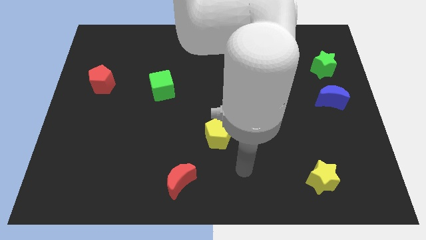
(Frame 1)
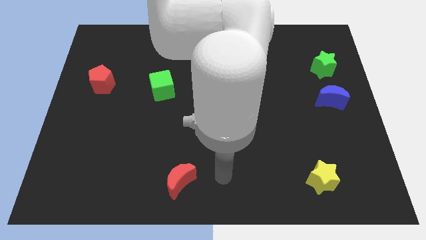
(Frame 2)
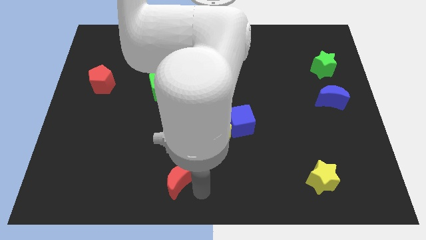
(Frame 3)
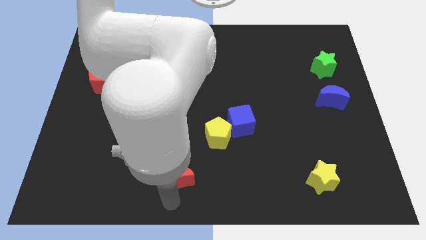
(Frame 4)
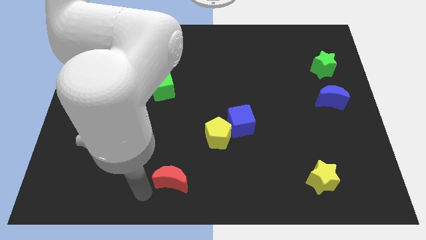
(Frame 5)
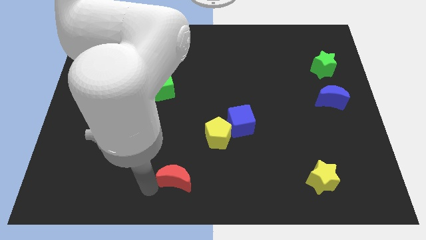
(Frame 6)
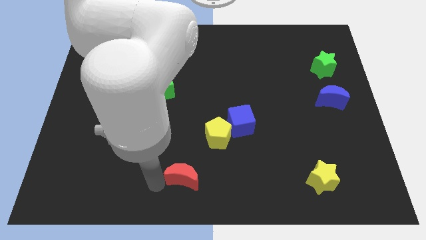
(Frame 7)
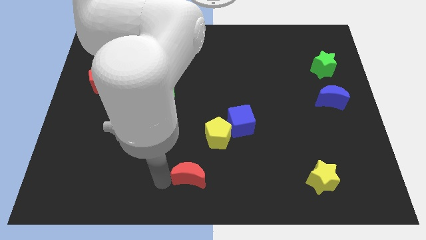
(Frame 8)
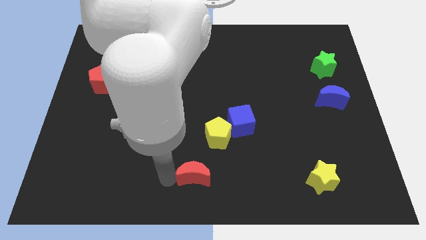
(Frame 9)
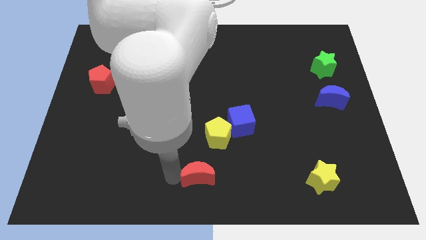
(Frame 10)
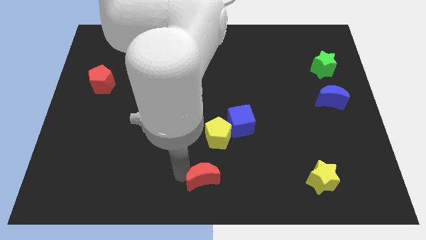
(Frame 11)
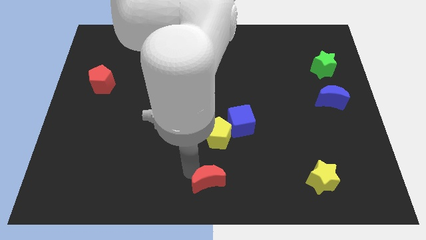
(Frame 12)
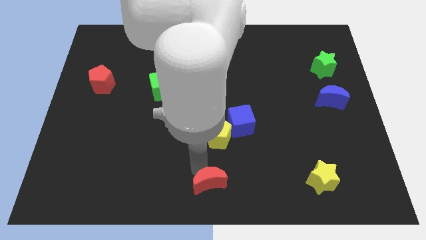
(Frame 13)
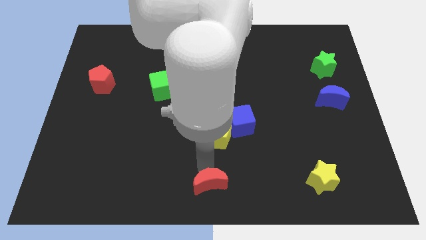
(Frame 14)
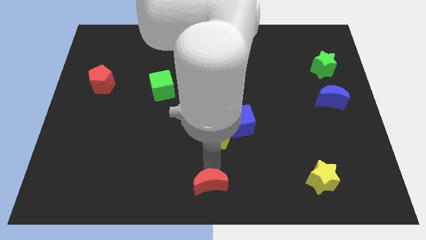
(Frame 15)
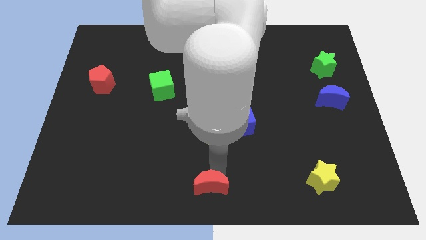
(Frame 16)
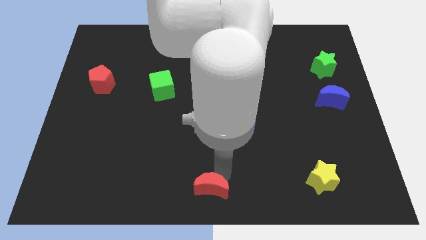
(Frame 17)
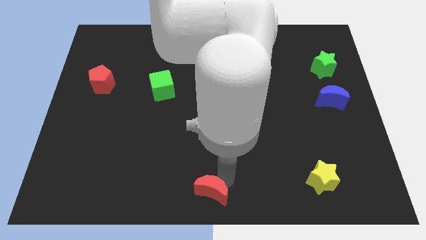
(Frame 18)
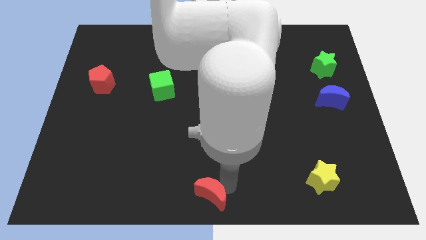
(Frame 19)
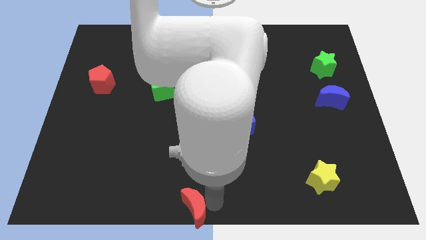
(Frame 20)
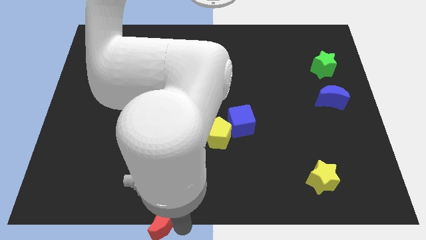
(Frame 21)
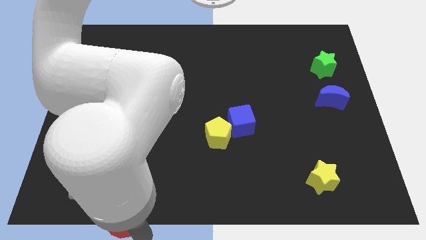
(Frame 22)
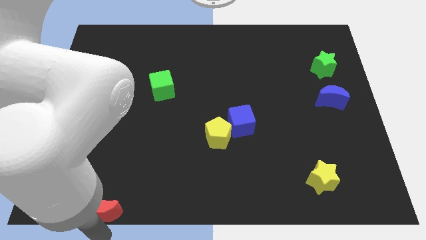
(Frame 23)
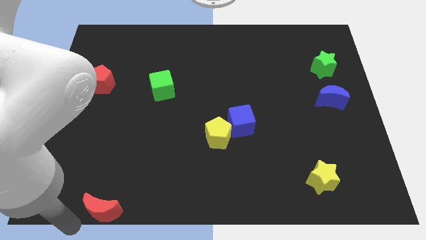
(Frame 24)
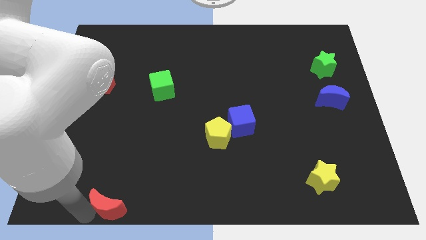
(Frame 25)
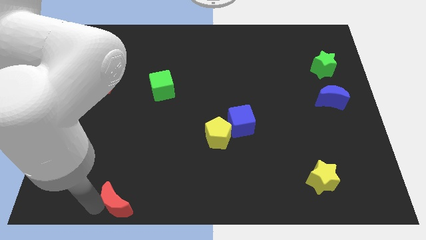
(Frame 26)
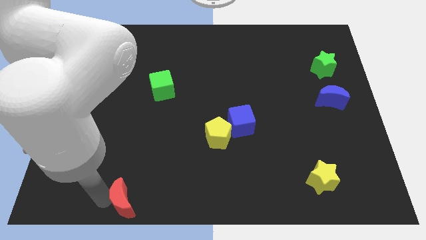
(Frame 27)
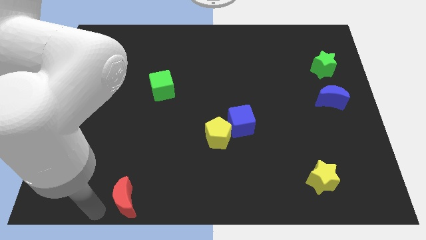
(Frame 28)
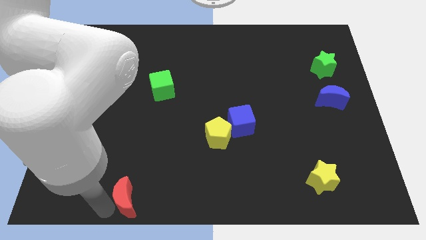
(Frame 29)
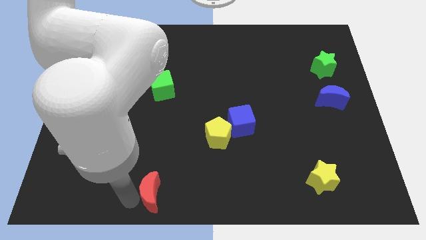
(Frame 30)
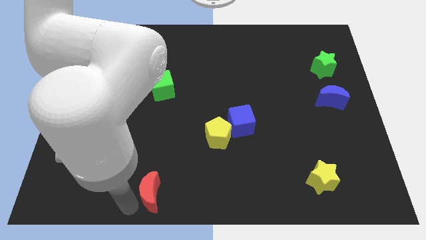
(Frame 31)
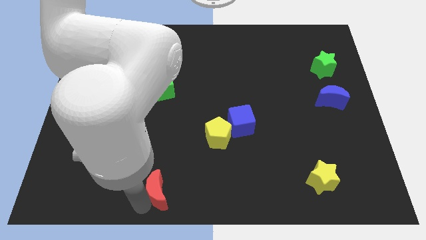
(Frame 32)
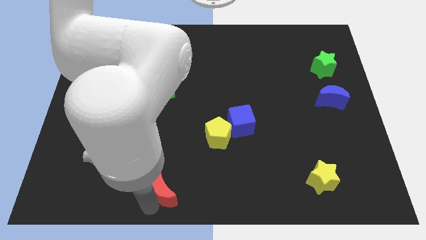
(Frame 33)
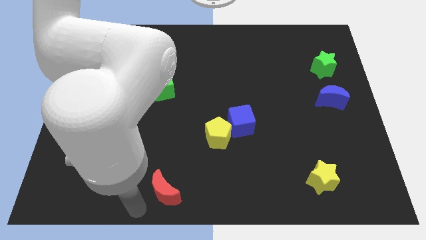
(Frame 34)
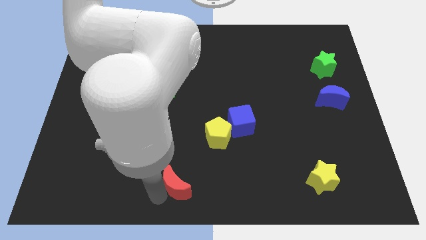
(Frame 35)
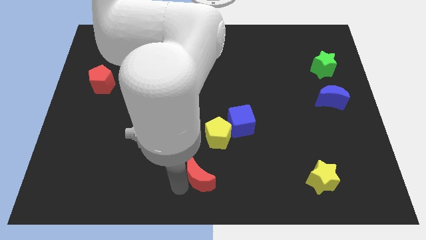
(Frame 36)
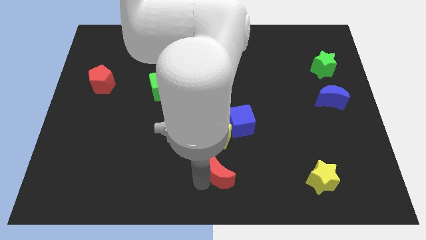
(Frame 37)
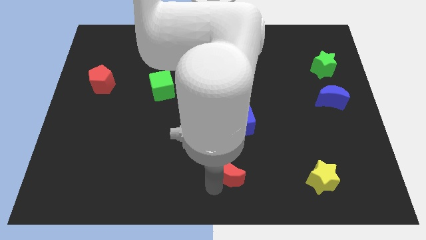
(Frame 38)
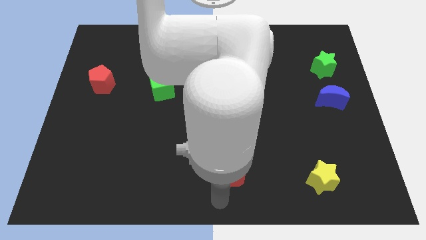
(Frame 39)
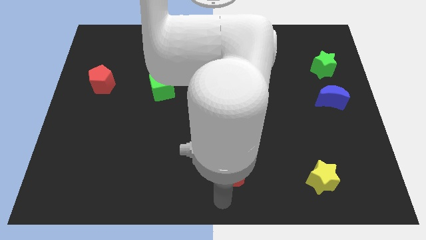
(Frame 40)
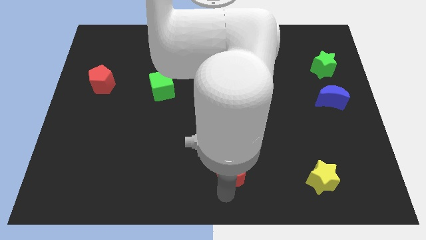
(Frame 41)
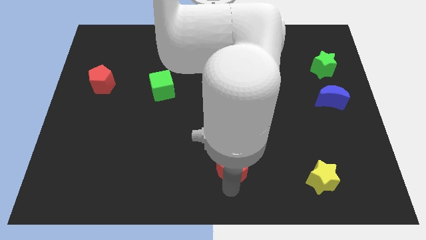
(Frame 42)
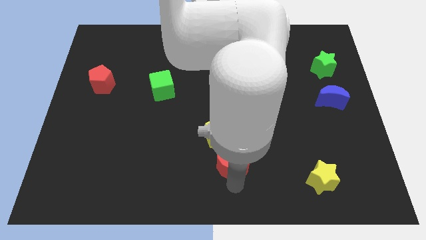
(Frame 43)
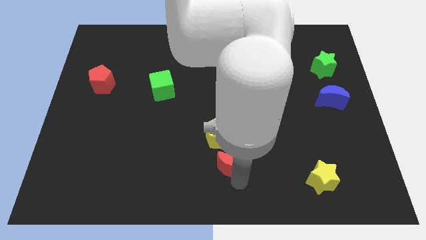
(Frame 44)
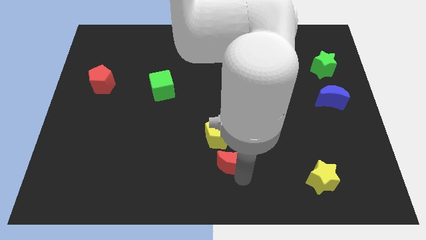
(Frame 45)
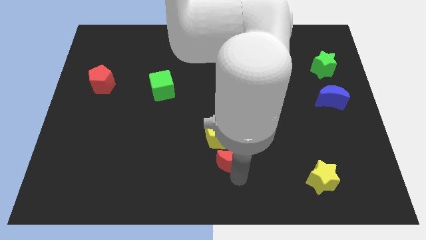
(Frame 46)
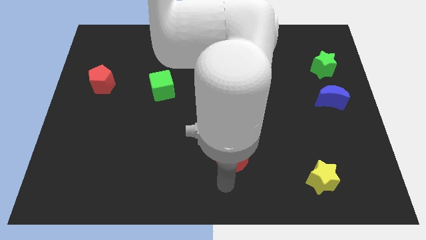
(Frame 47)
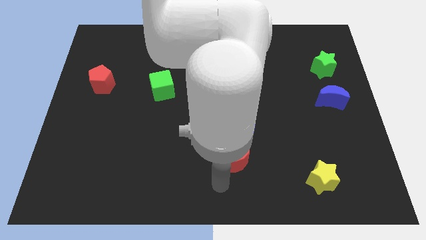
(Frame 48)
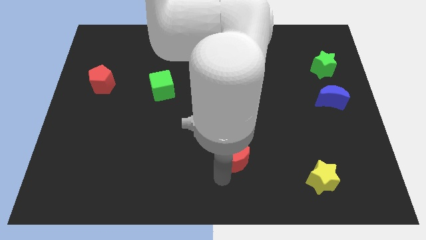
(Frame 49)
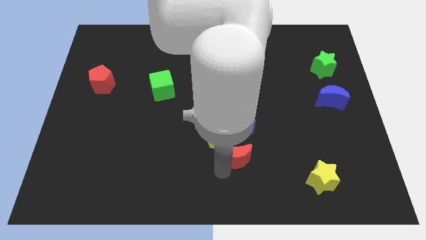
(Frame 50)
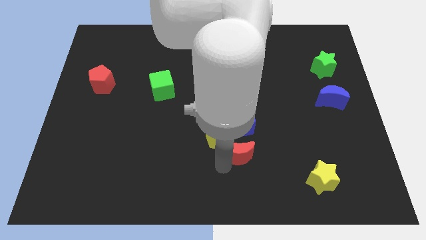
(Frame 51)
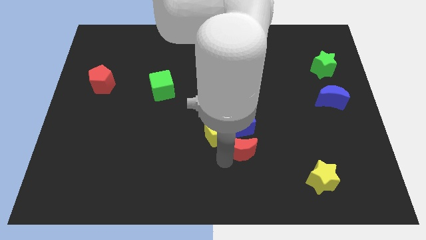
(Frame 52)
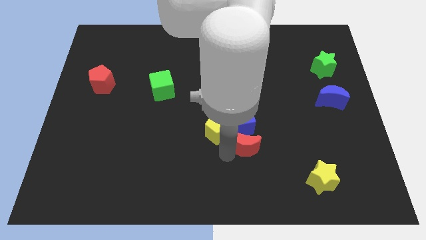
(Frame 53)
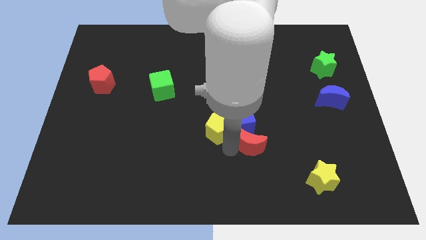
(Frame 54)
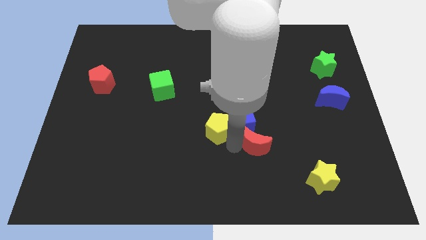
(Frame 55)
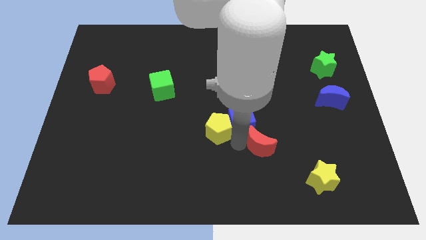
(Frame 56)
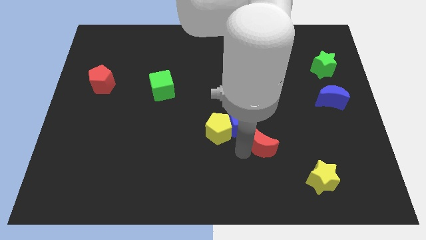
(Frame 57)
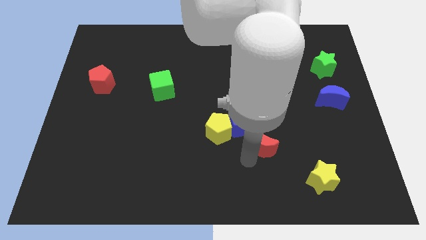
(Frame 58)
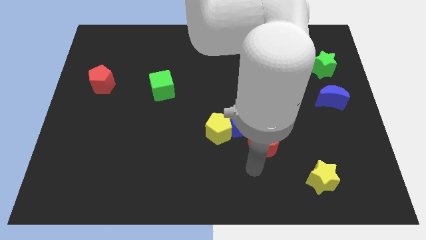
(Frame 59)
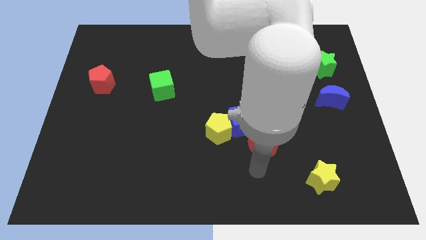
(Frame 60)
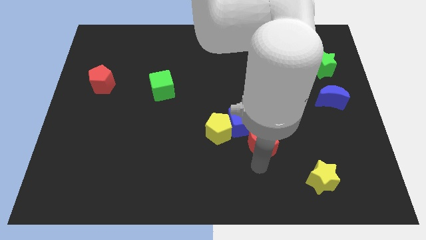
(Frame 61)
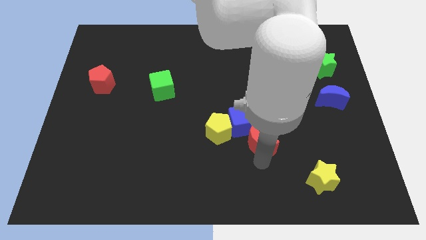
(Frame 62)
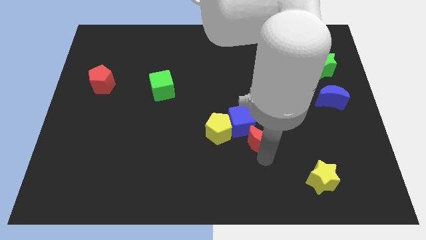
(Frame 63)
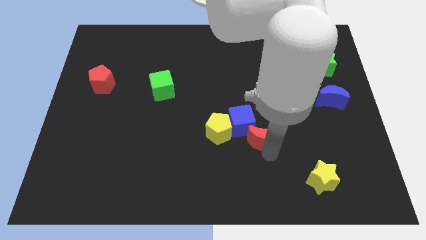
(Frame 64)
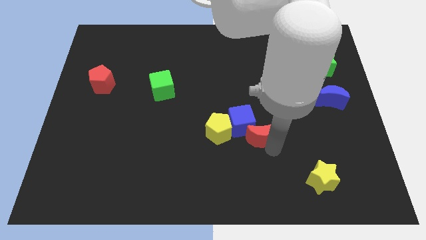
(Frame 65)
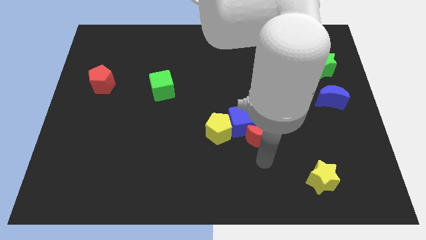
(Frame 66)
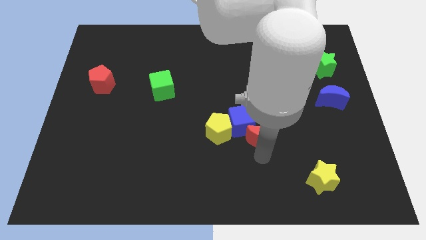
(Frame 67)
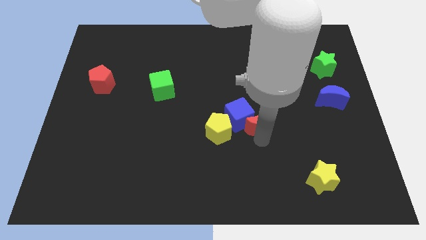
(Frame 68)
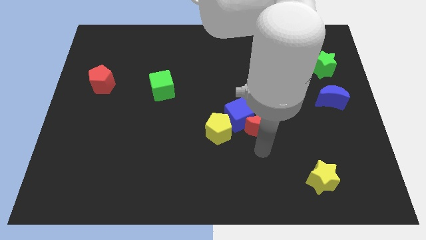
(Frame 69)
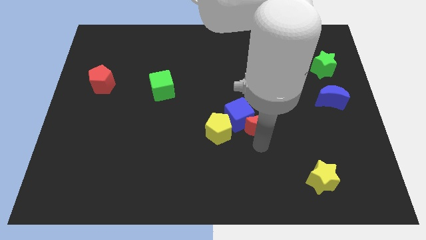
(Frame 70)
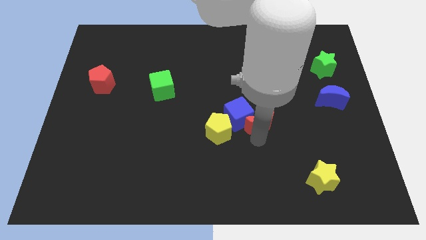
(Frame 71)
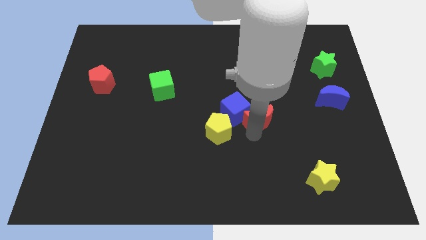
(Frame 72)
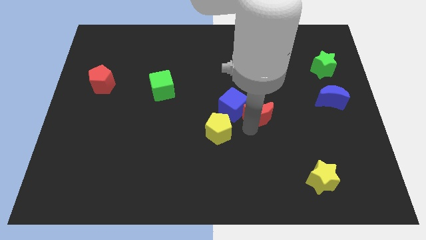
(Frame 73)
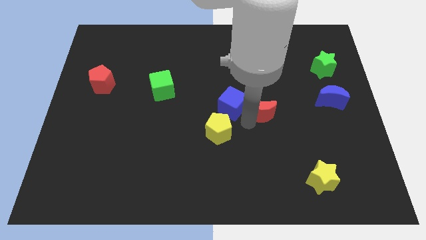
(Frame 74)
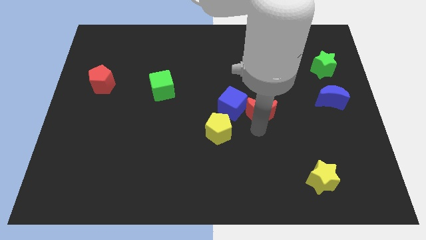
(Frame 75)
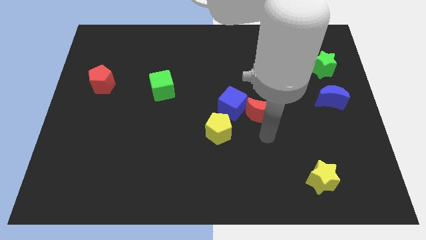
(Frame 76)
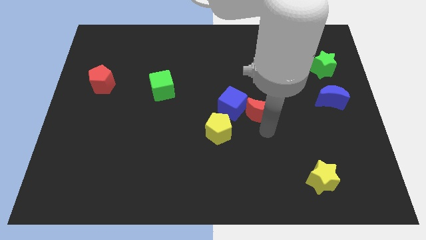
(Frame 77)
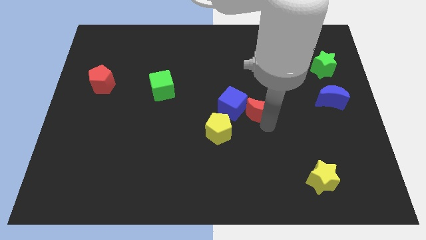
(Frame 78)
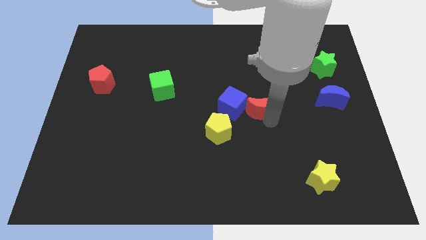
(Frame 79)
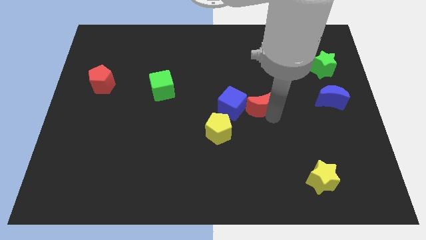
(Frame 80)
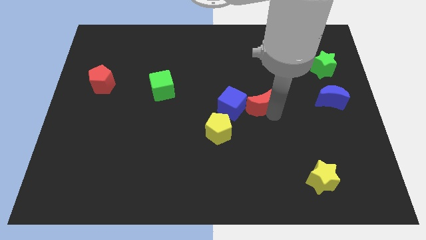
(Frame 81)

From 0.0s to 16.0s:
slide the red moon diagonally up and to the right of the blue cube
